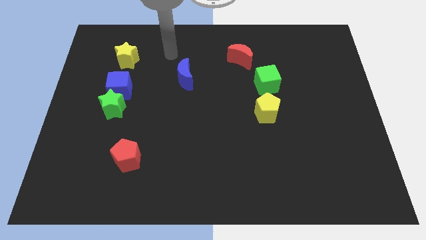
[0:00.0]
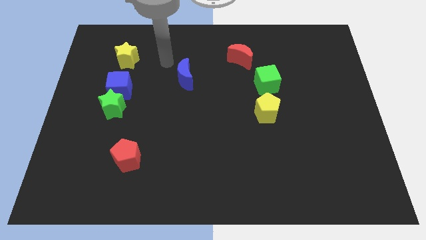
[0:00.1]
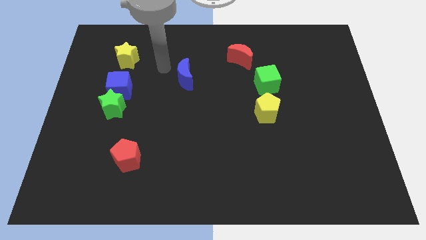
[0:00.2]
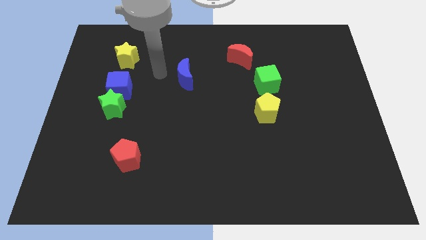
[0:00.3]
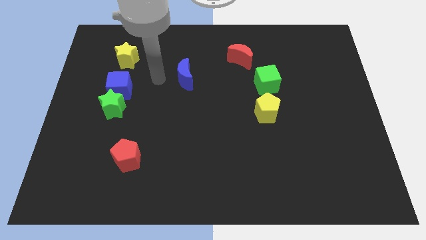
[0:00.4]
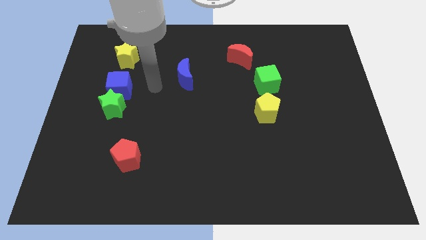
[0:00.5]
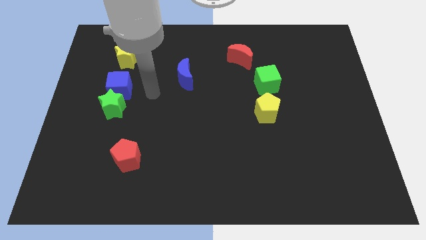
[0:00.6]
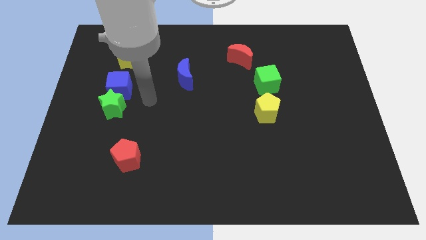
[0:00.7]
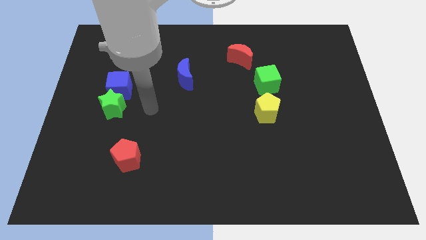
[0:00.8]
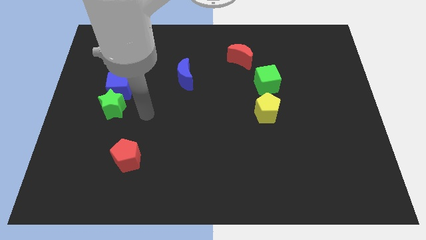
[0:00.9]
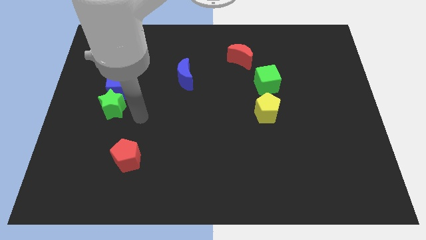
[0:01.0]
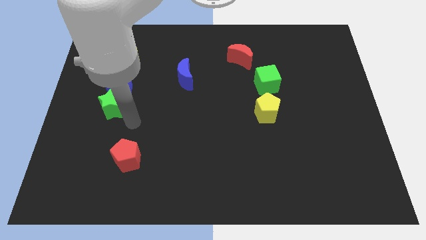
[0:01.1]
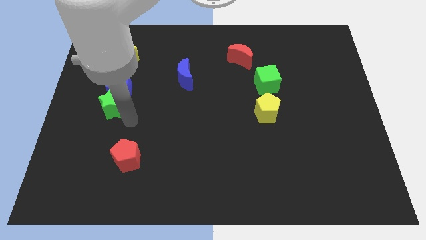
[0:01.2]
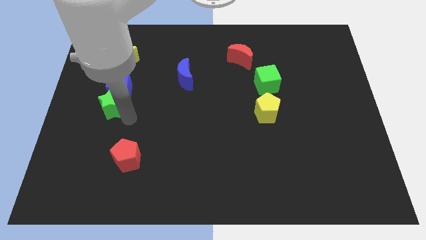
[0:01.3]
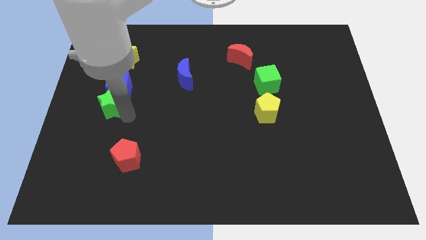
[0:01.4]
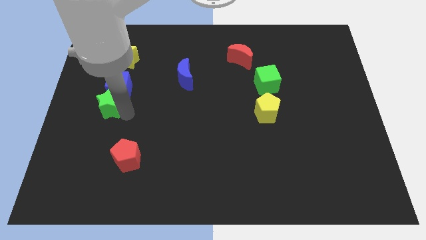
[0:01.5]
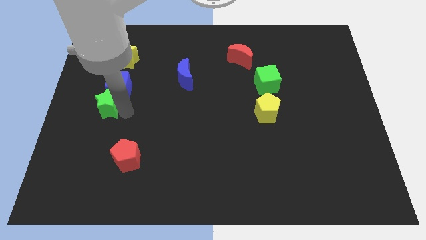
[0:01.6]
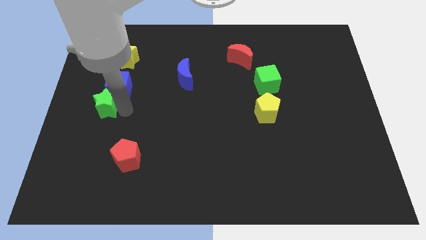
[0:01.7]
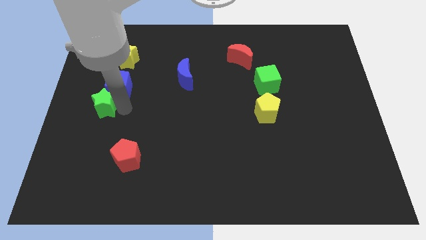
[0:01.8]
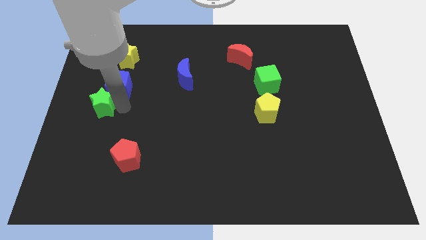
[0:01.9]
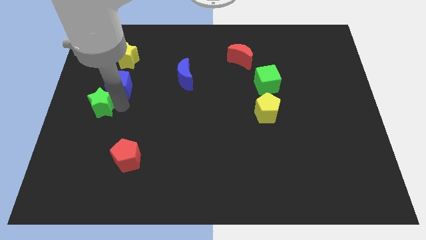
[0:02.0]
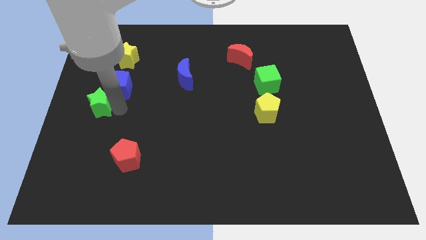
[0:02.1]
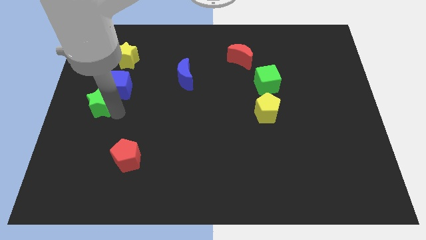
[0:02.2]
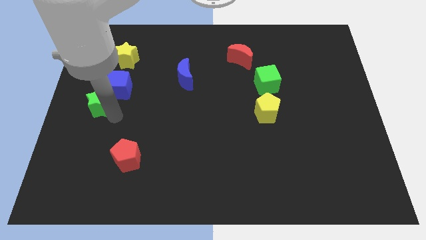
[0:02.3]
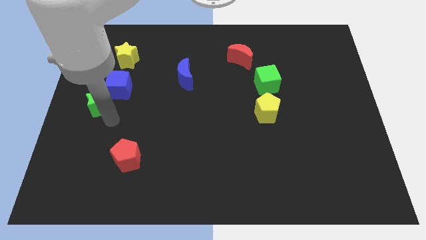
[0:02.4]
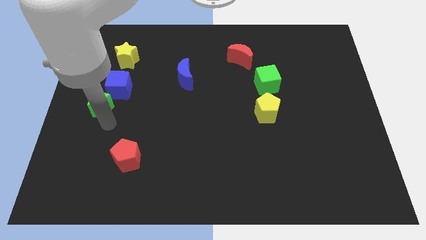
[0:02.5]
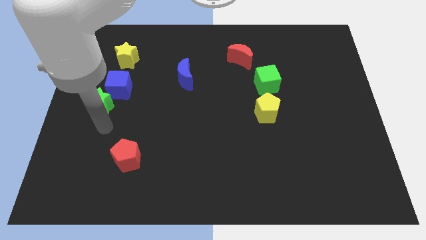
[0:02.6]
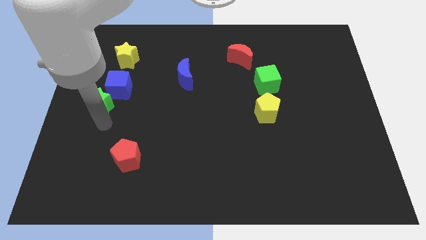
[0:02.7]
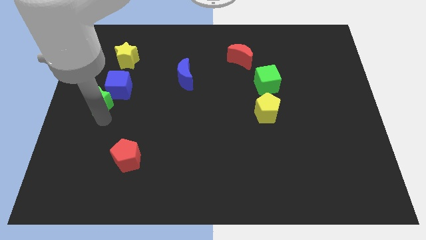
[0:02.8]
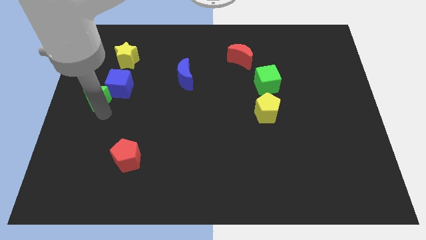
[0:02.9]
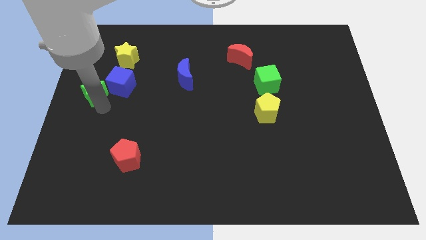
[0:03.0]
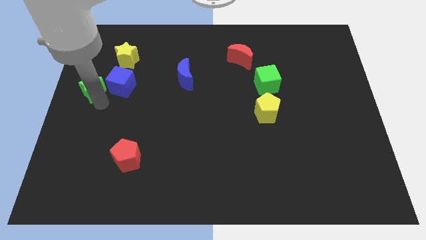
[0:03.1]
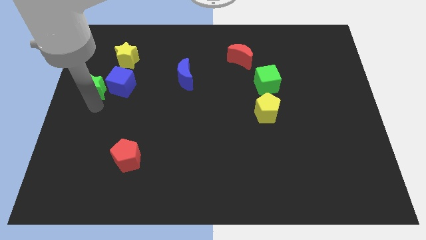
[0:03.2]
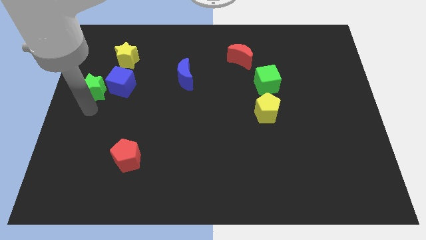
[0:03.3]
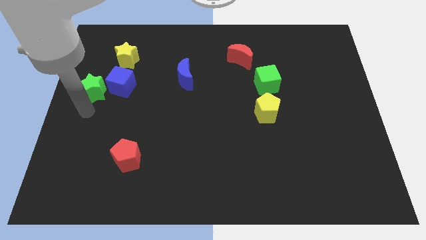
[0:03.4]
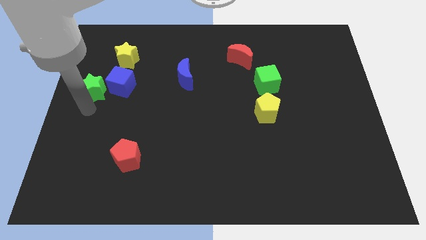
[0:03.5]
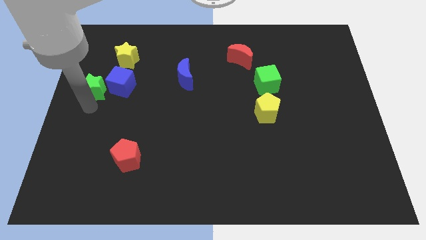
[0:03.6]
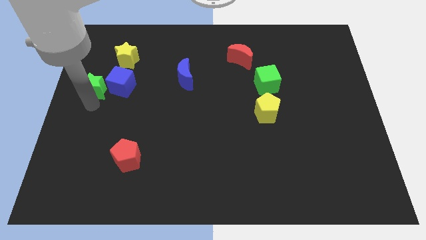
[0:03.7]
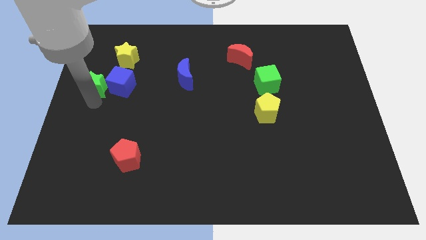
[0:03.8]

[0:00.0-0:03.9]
push the green star to the bottom left side of the yellow star

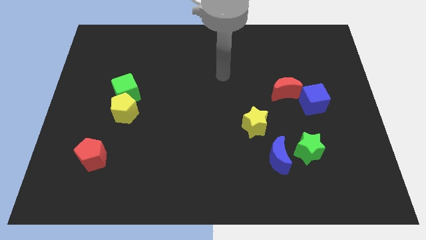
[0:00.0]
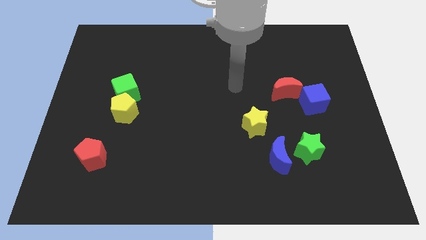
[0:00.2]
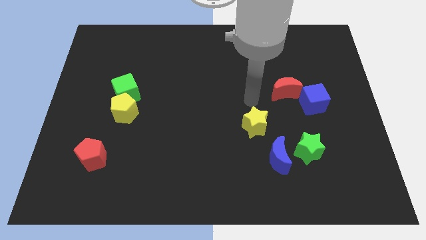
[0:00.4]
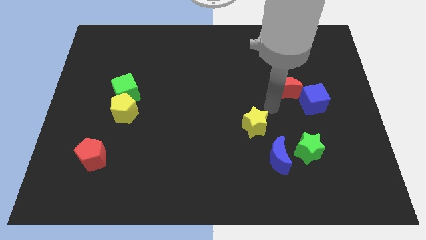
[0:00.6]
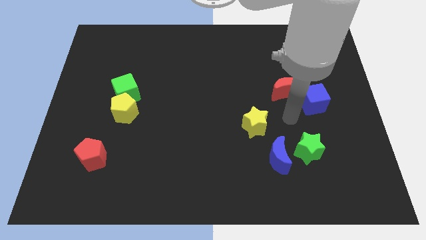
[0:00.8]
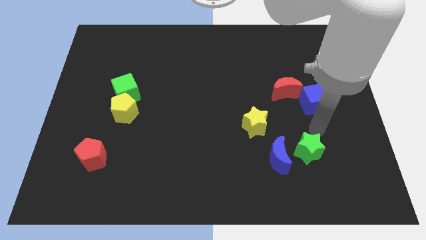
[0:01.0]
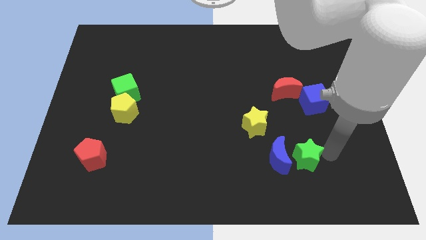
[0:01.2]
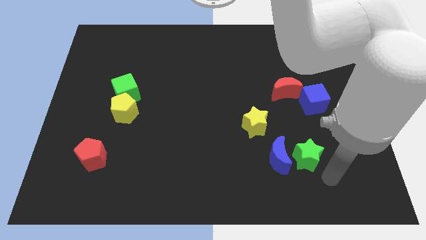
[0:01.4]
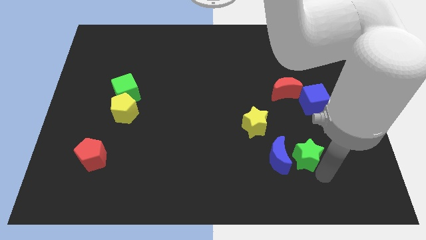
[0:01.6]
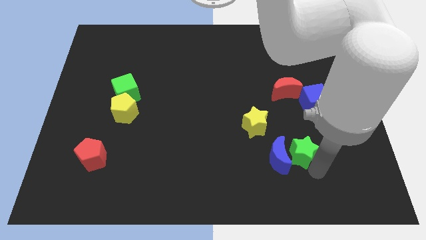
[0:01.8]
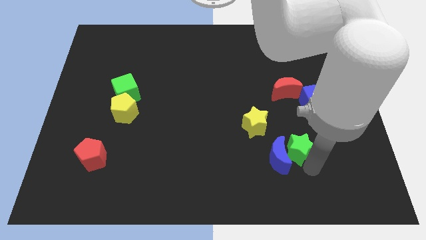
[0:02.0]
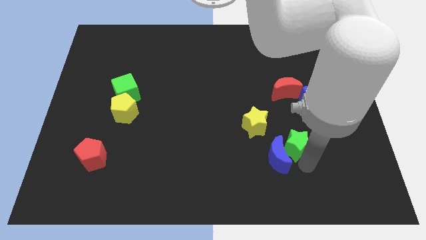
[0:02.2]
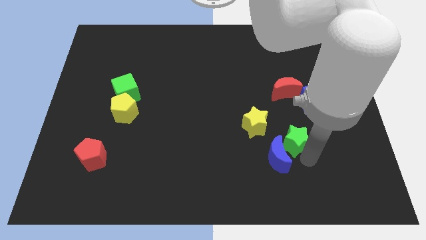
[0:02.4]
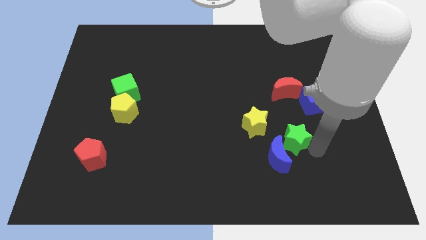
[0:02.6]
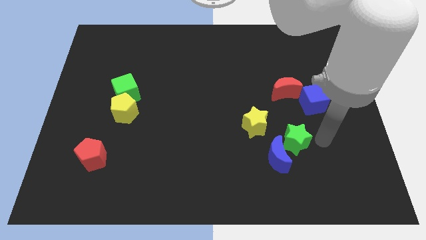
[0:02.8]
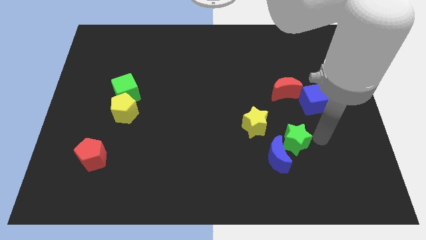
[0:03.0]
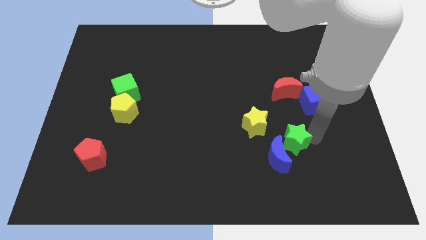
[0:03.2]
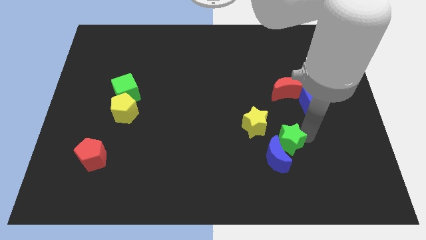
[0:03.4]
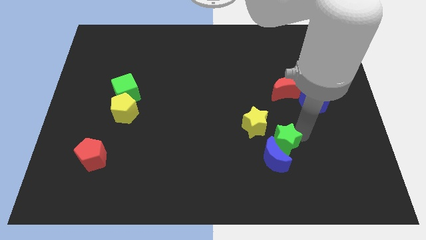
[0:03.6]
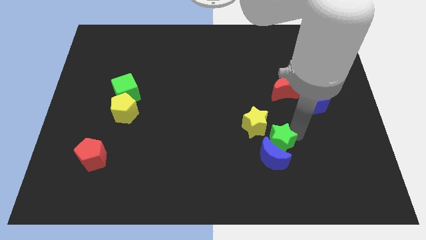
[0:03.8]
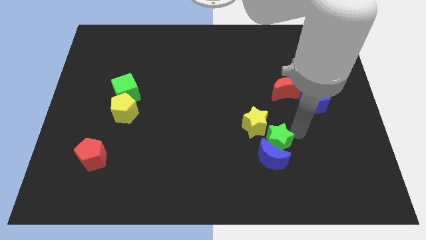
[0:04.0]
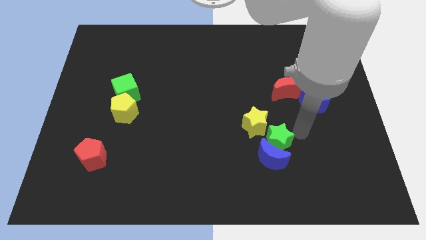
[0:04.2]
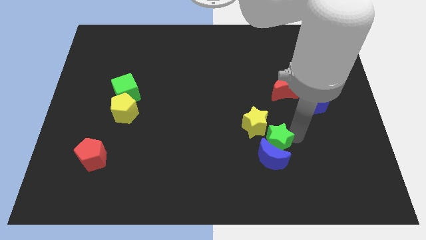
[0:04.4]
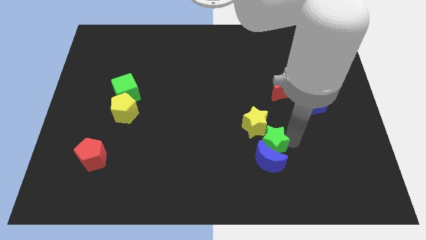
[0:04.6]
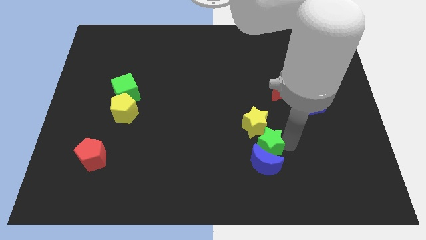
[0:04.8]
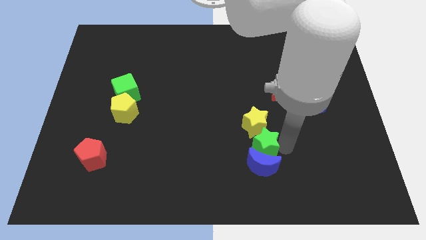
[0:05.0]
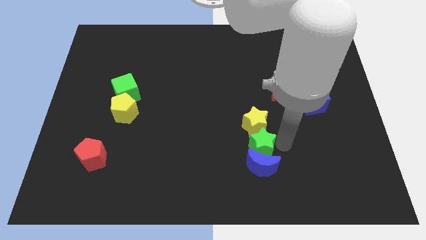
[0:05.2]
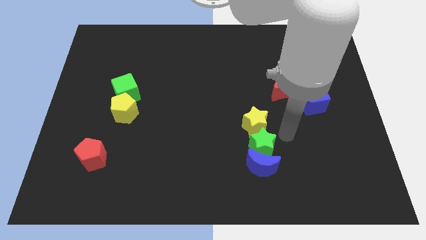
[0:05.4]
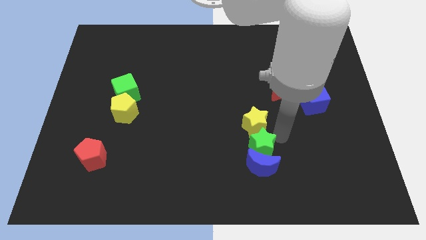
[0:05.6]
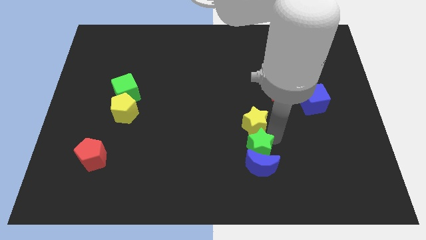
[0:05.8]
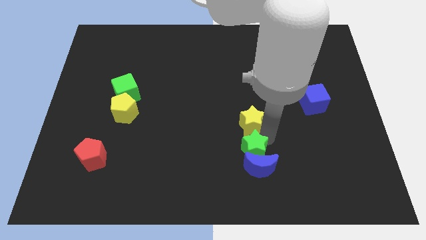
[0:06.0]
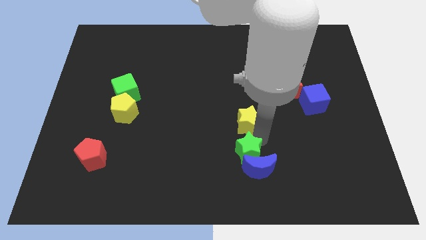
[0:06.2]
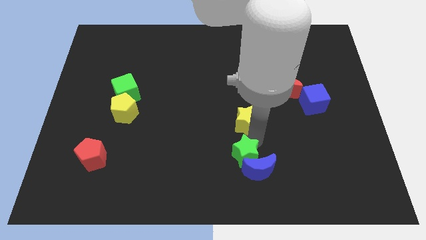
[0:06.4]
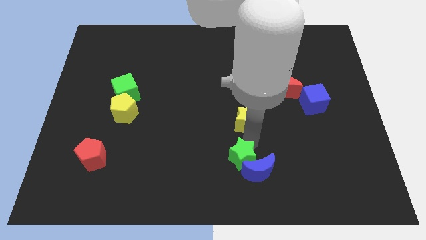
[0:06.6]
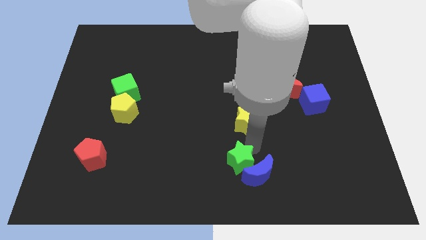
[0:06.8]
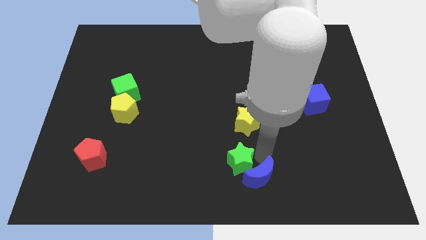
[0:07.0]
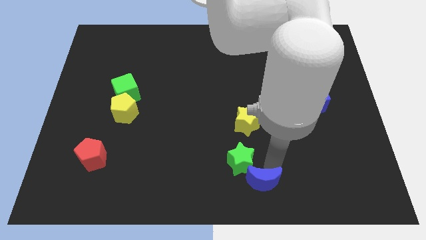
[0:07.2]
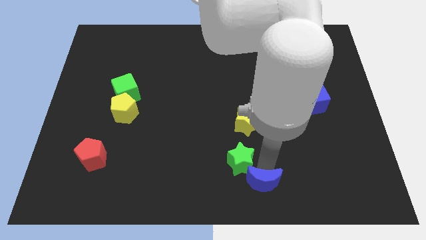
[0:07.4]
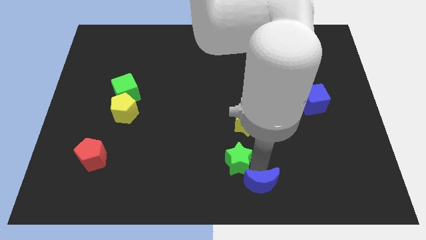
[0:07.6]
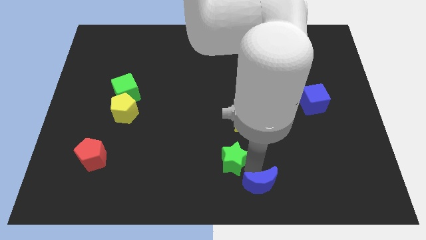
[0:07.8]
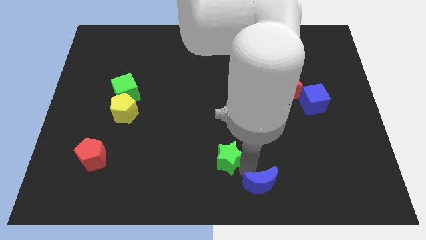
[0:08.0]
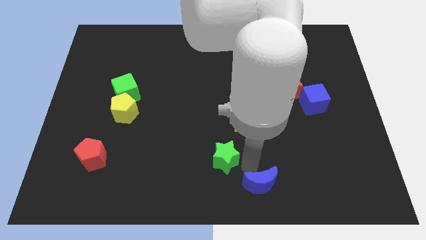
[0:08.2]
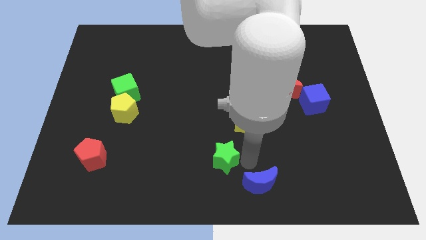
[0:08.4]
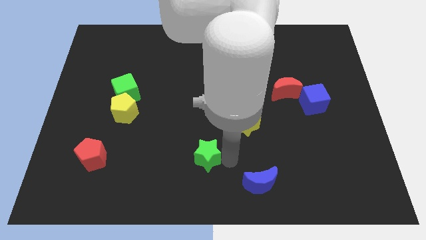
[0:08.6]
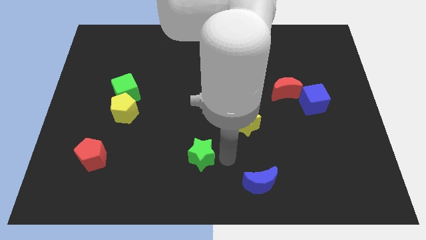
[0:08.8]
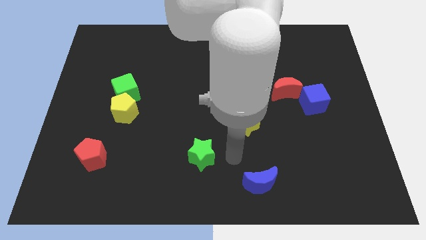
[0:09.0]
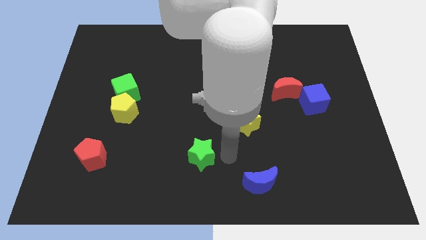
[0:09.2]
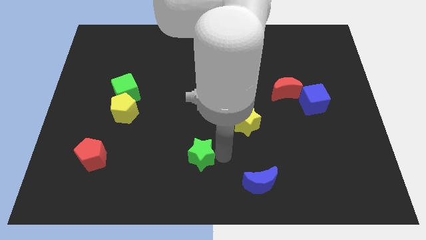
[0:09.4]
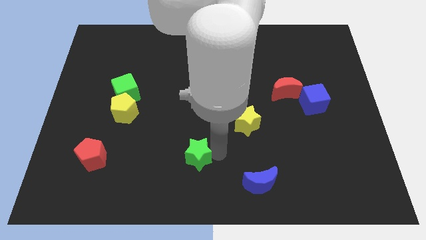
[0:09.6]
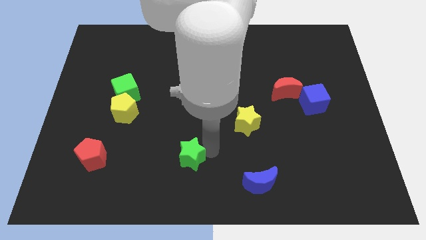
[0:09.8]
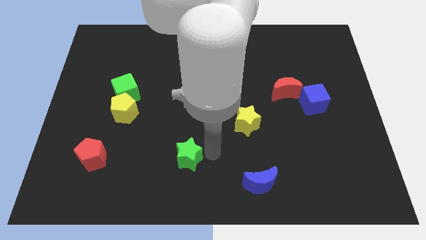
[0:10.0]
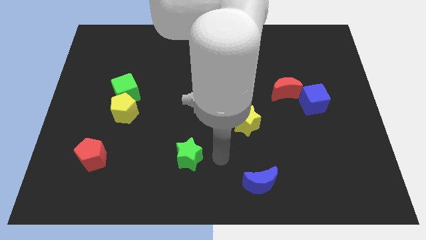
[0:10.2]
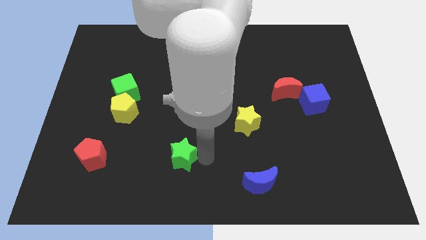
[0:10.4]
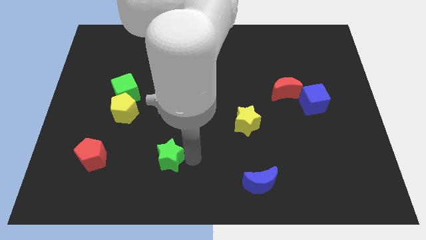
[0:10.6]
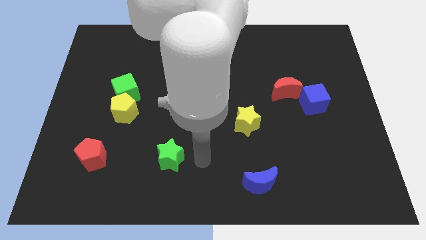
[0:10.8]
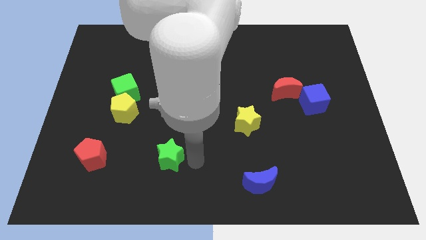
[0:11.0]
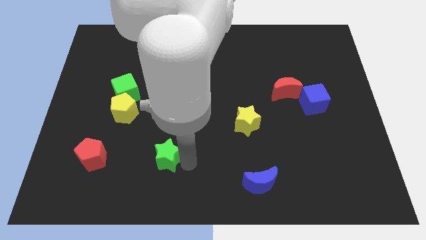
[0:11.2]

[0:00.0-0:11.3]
move the green star to the right of the red pentagon
